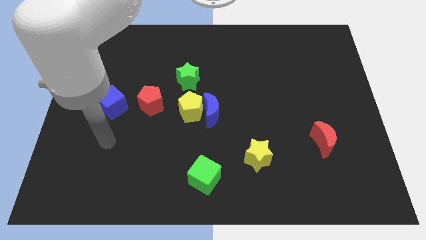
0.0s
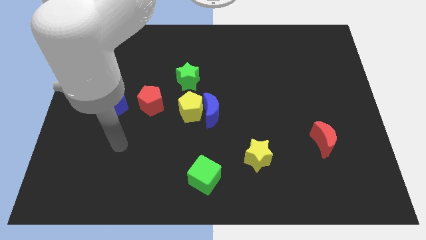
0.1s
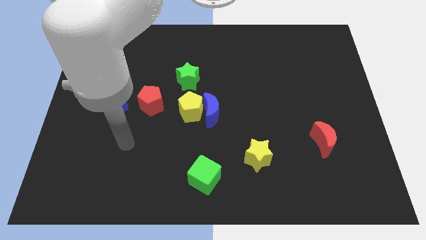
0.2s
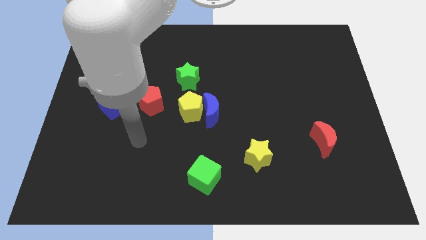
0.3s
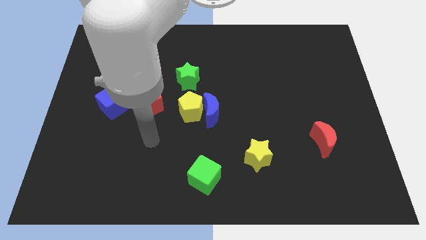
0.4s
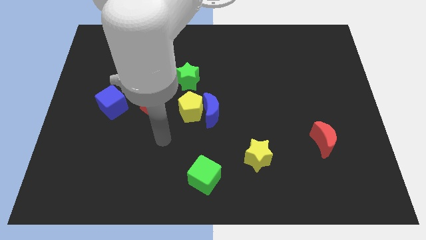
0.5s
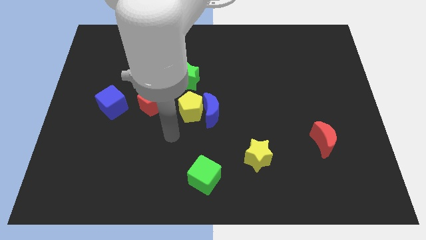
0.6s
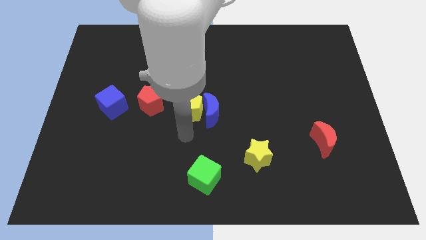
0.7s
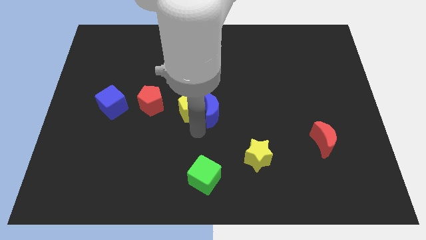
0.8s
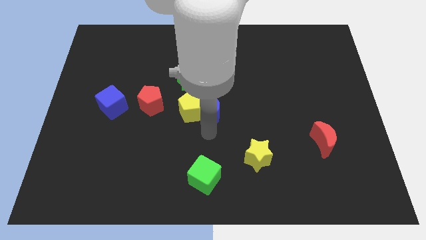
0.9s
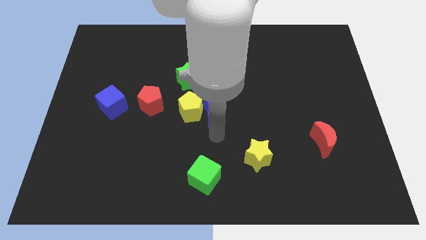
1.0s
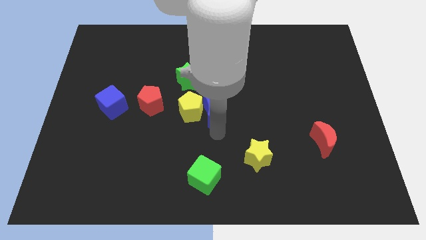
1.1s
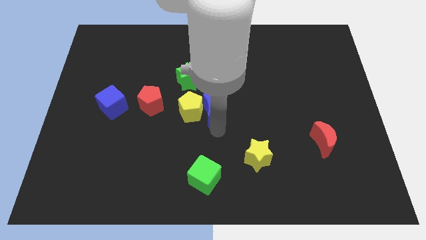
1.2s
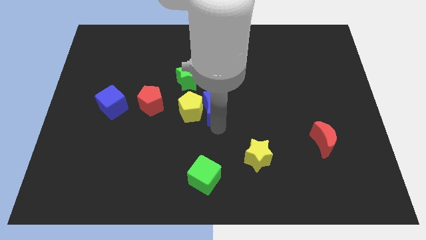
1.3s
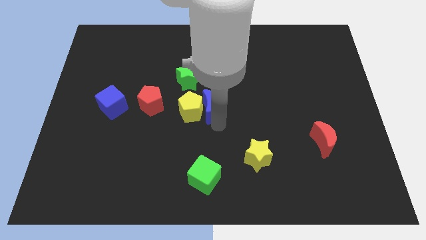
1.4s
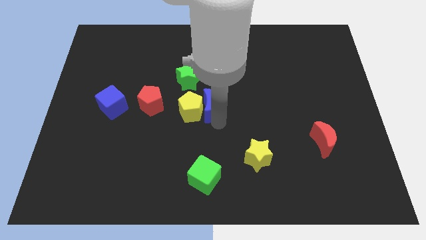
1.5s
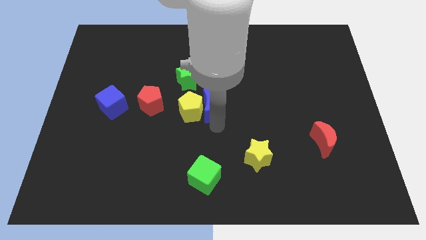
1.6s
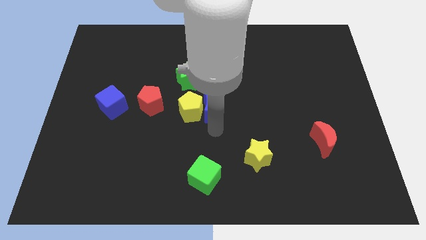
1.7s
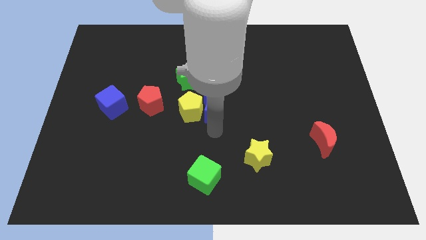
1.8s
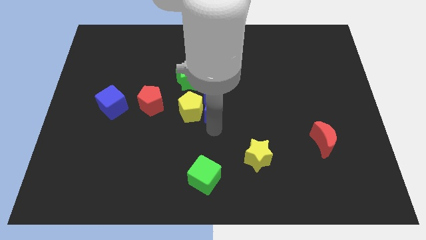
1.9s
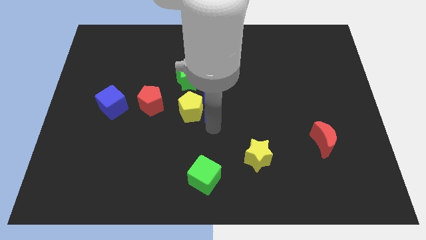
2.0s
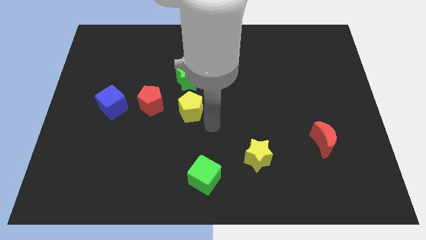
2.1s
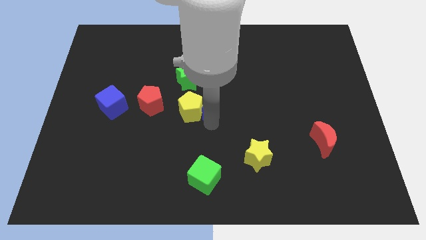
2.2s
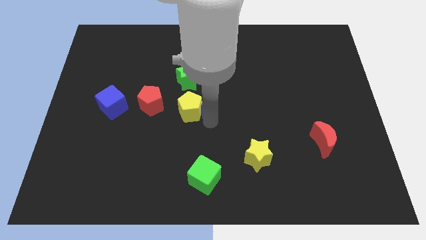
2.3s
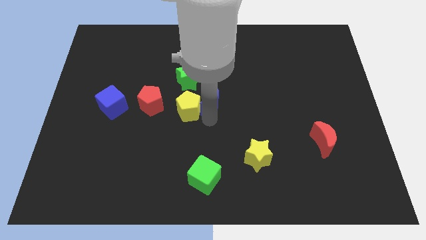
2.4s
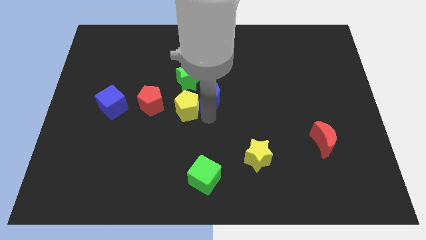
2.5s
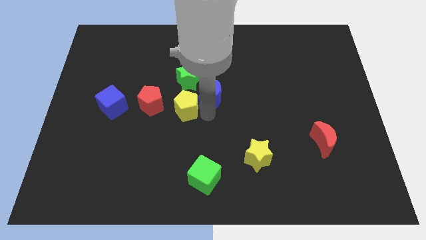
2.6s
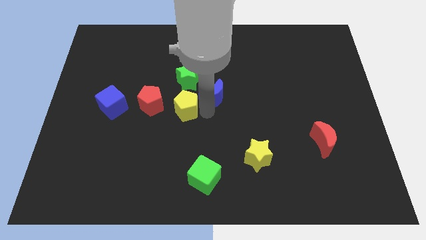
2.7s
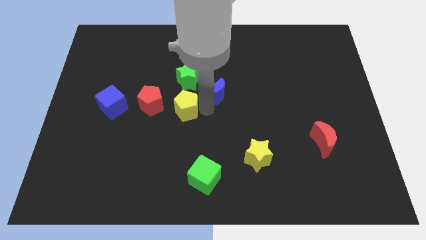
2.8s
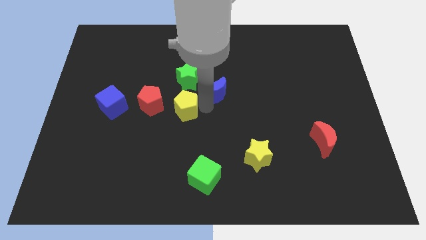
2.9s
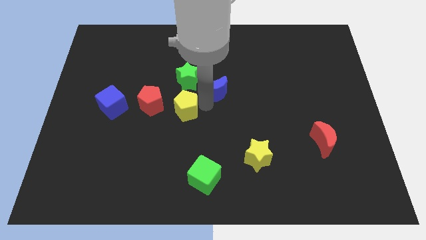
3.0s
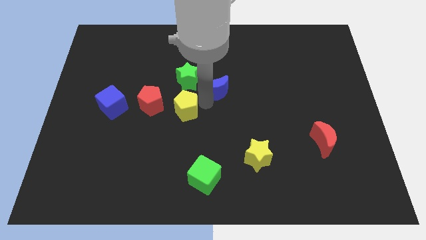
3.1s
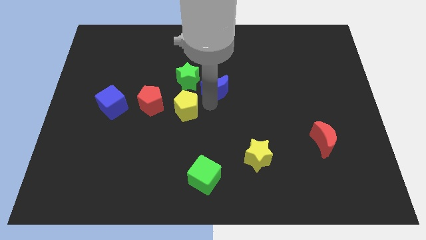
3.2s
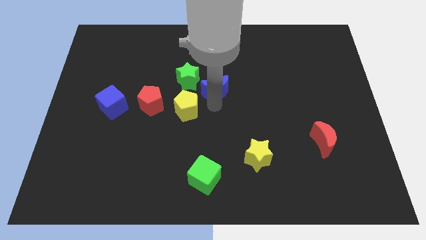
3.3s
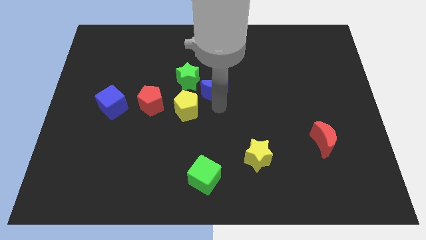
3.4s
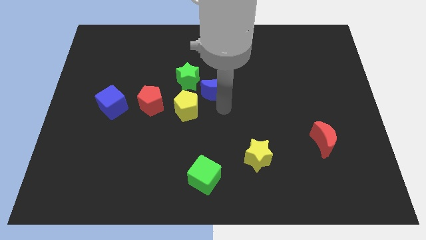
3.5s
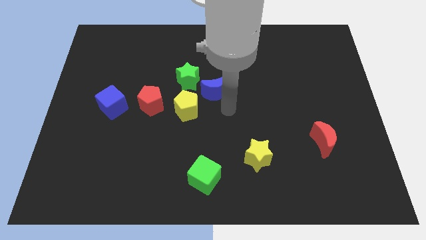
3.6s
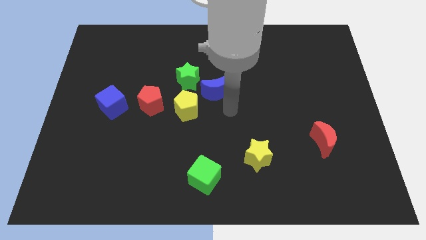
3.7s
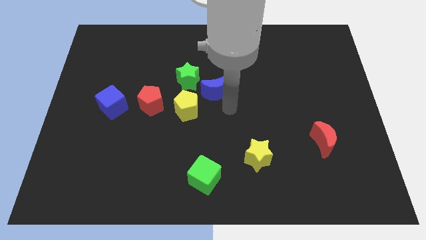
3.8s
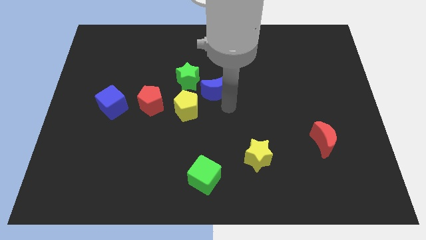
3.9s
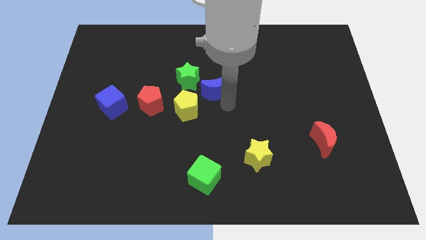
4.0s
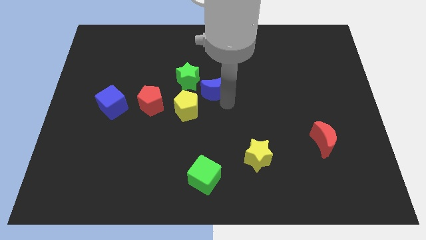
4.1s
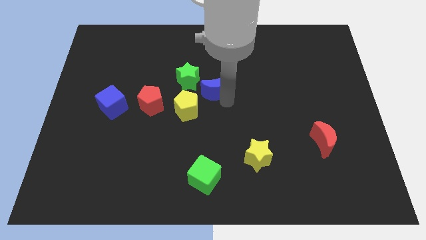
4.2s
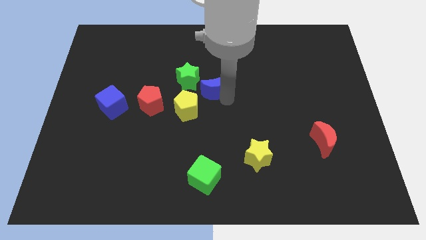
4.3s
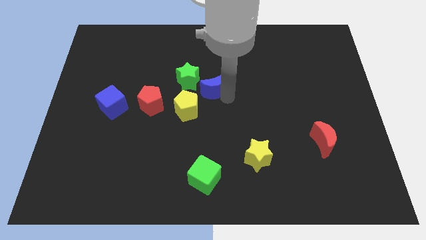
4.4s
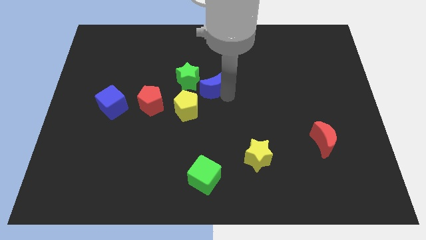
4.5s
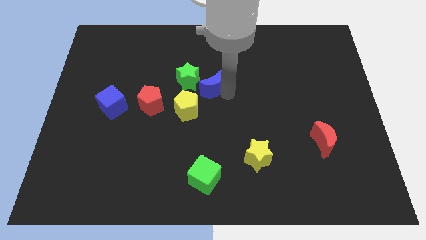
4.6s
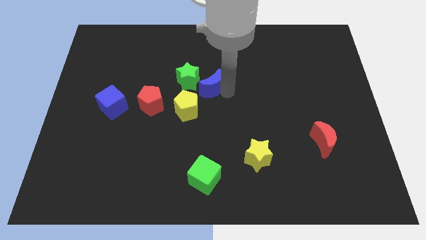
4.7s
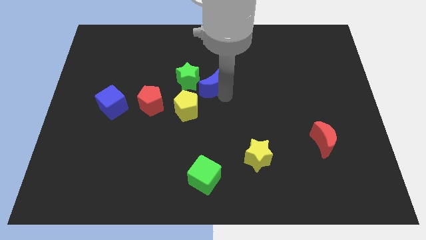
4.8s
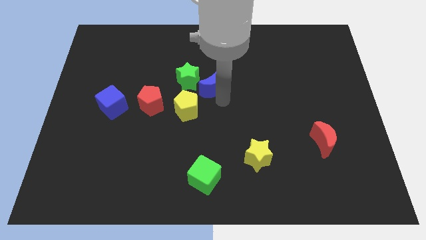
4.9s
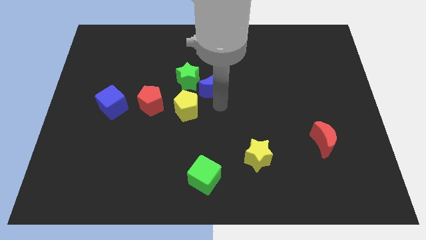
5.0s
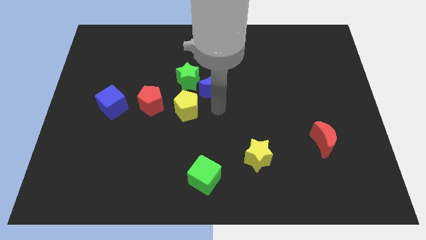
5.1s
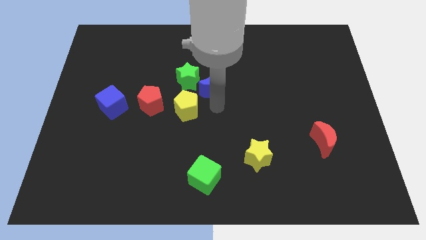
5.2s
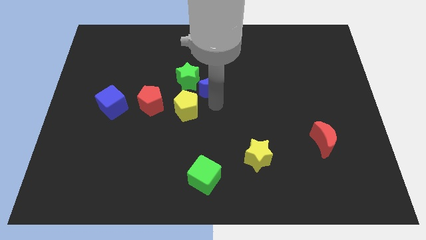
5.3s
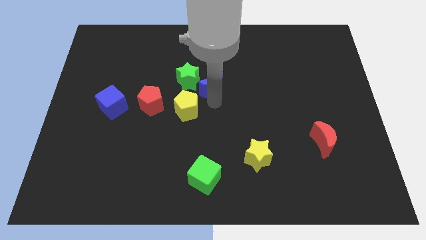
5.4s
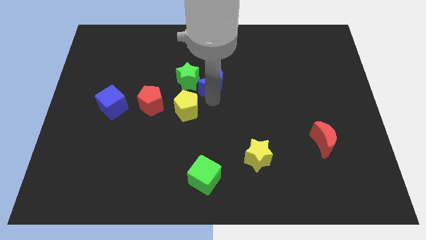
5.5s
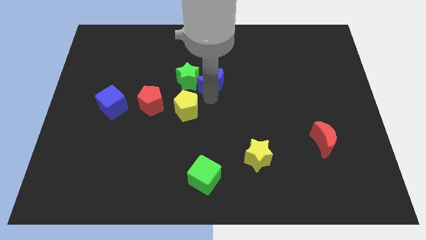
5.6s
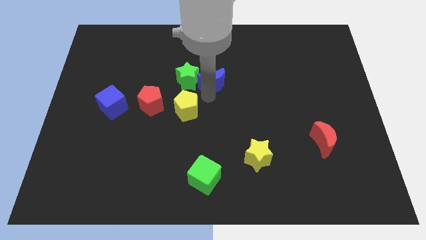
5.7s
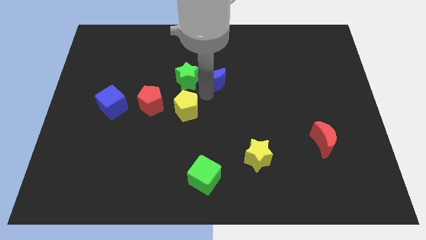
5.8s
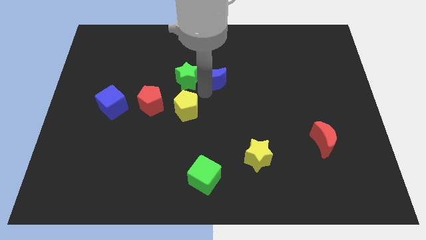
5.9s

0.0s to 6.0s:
slide the blue moon diagonally up and to the right of the green star

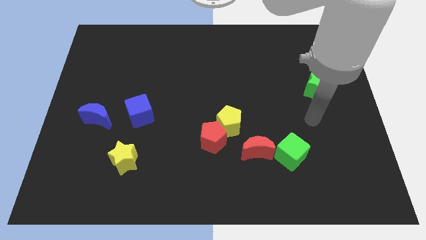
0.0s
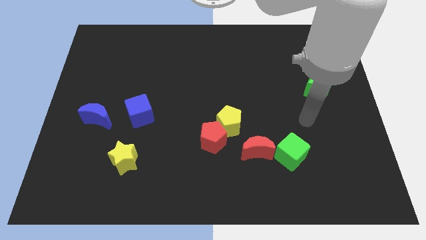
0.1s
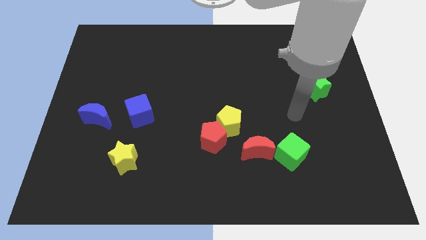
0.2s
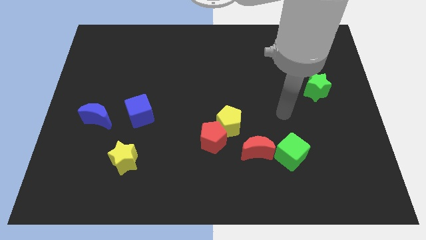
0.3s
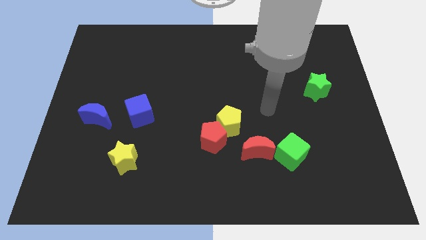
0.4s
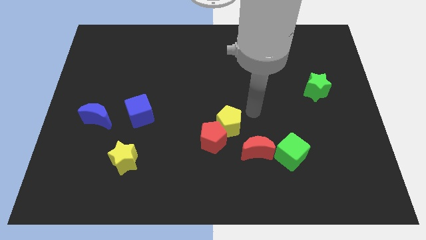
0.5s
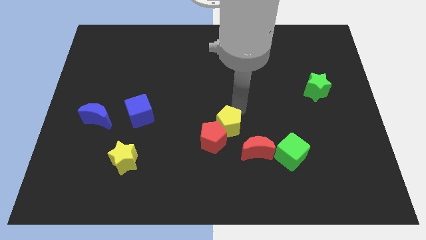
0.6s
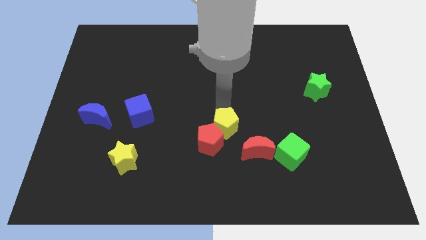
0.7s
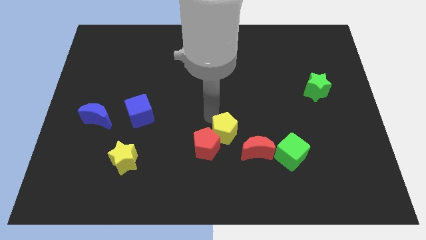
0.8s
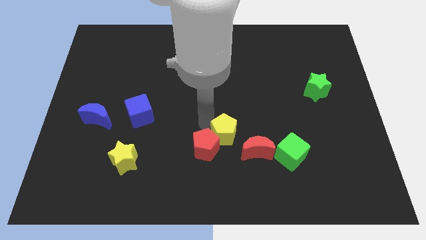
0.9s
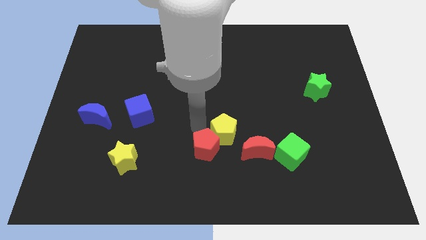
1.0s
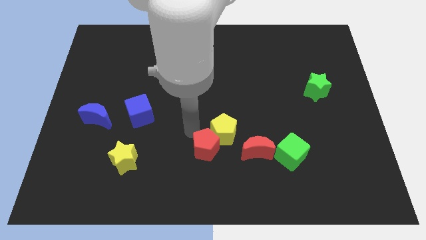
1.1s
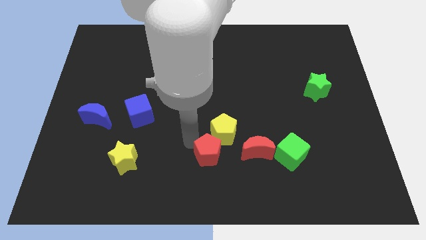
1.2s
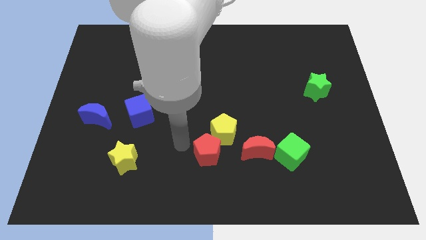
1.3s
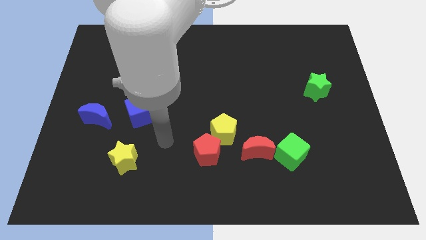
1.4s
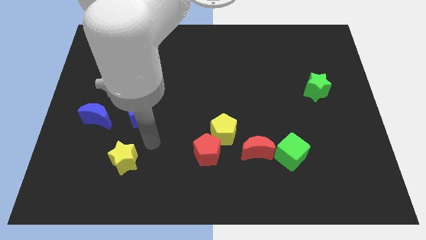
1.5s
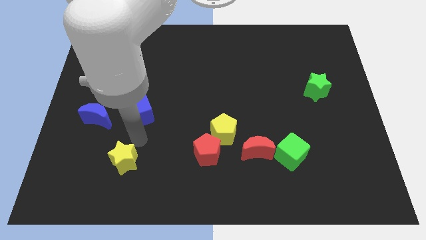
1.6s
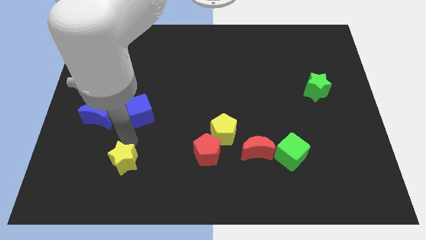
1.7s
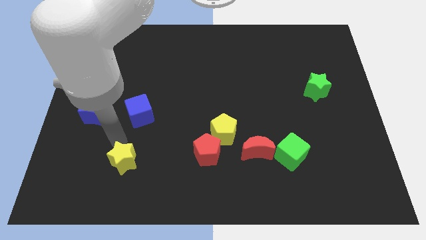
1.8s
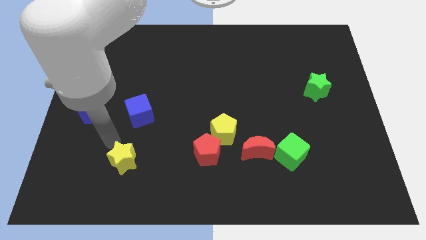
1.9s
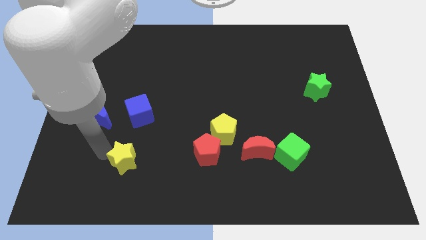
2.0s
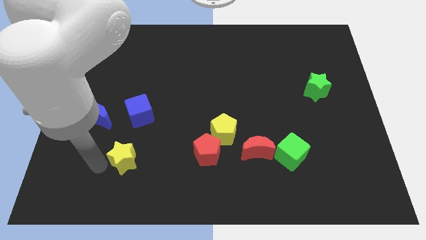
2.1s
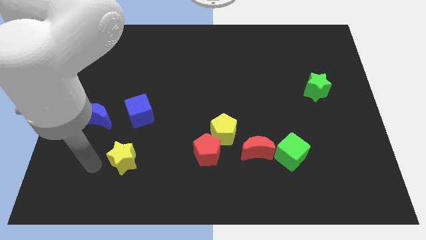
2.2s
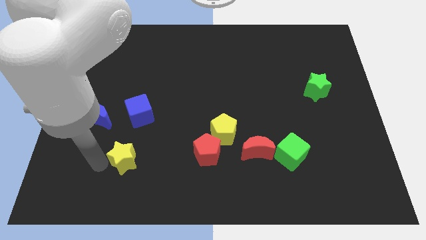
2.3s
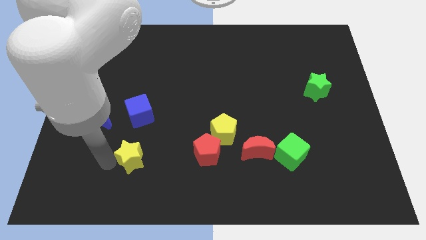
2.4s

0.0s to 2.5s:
push the yellow star left of the red pentagon
